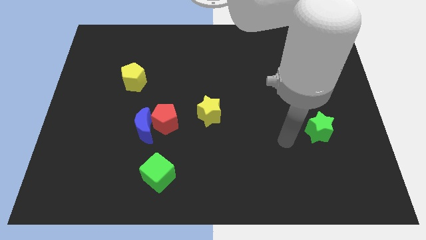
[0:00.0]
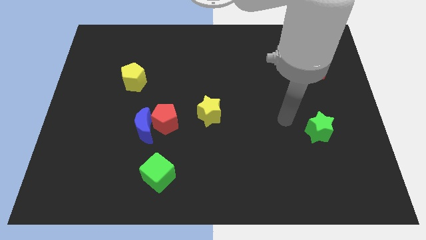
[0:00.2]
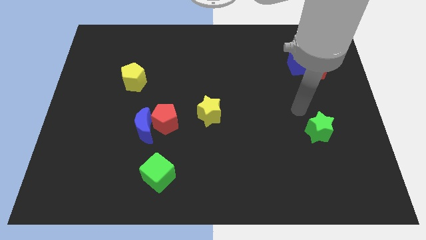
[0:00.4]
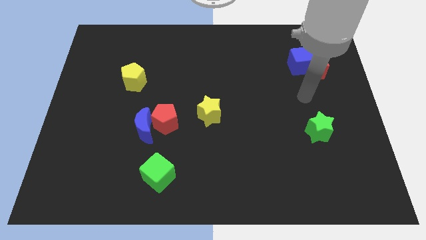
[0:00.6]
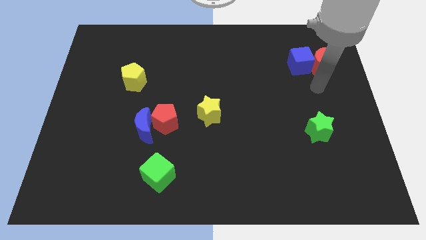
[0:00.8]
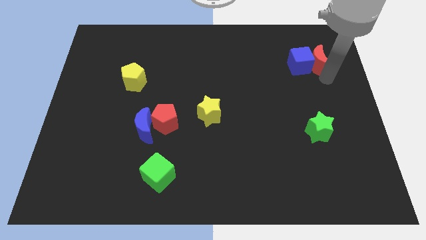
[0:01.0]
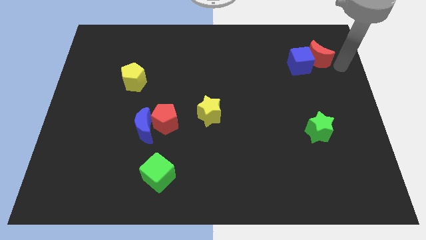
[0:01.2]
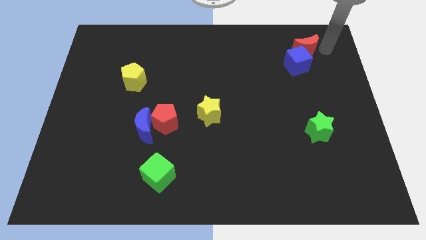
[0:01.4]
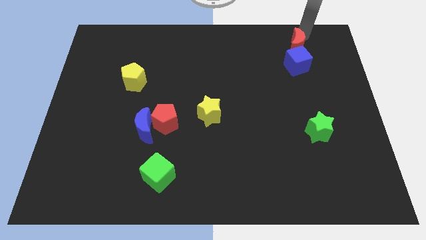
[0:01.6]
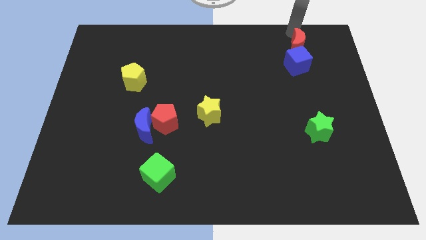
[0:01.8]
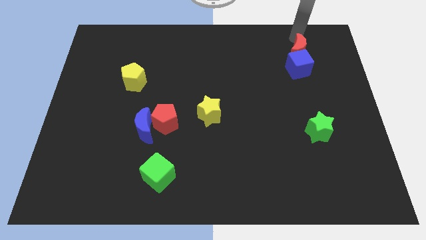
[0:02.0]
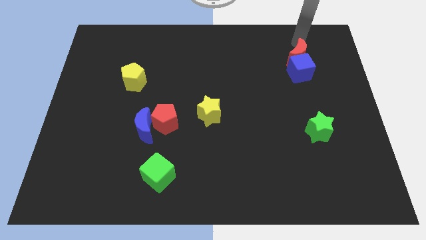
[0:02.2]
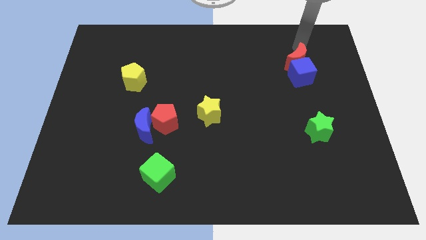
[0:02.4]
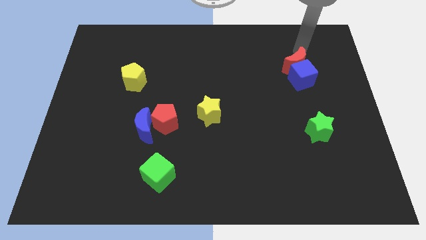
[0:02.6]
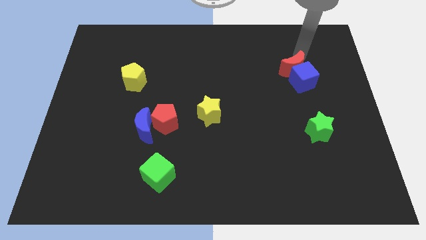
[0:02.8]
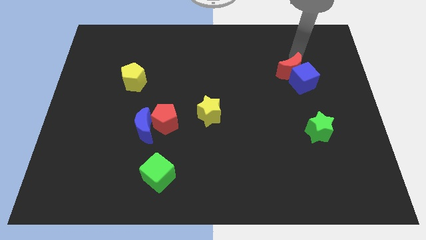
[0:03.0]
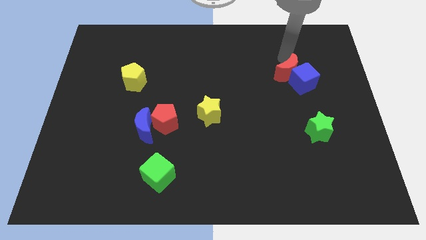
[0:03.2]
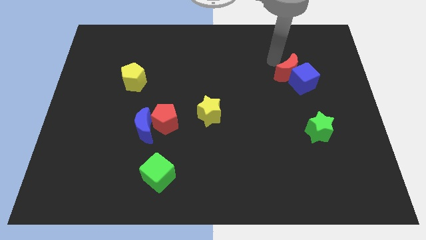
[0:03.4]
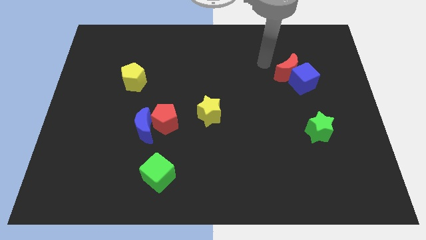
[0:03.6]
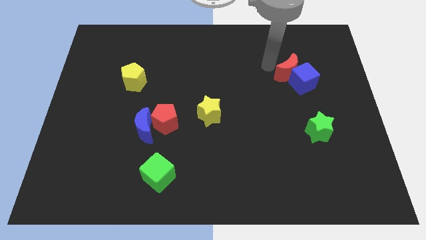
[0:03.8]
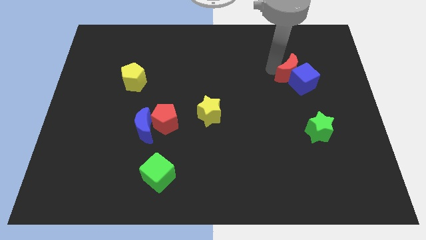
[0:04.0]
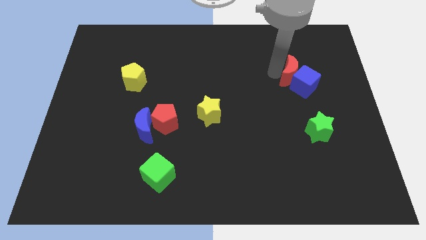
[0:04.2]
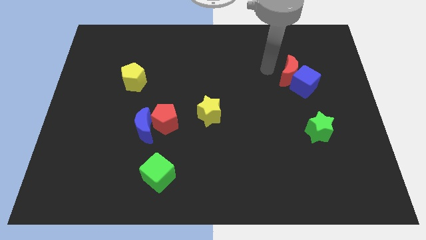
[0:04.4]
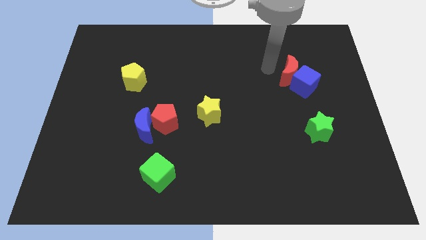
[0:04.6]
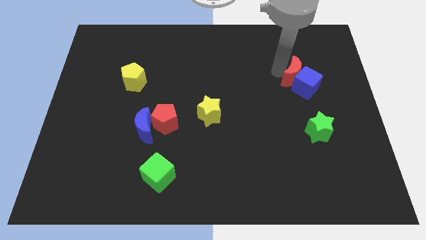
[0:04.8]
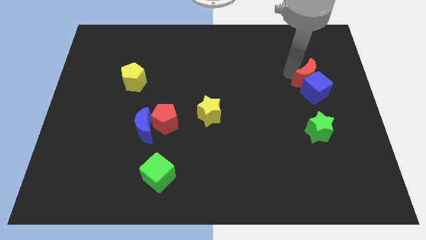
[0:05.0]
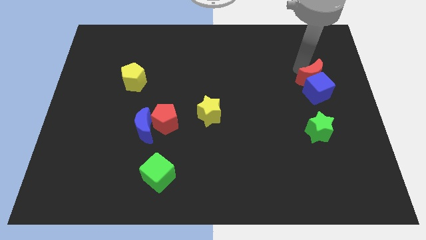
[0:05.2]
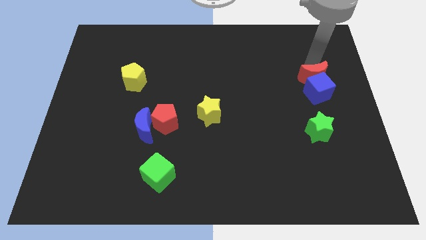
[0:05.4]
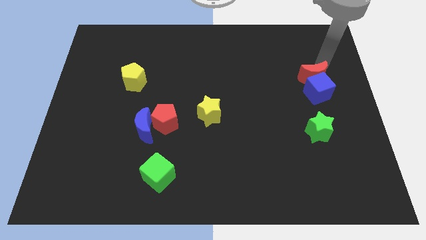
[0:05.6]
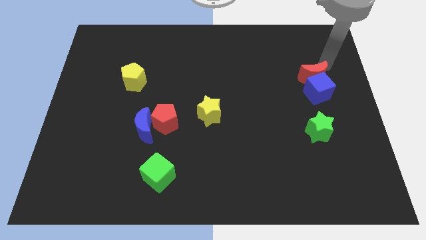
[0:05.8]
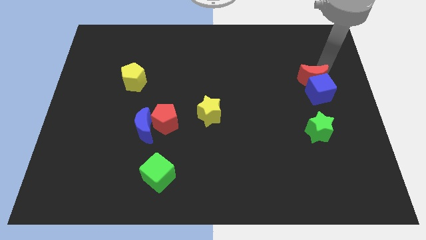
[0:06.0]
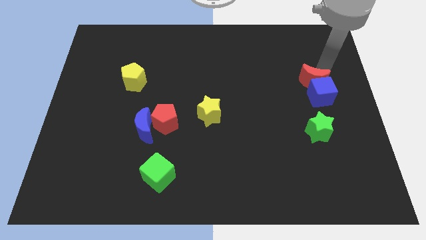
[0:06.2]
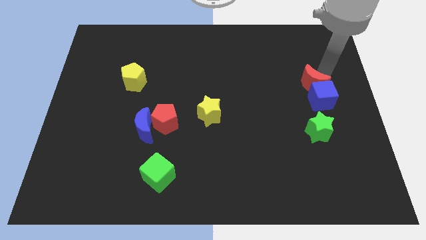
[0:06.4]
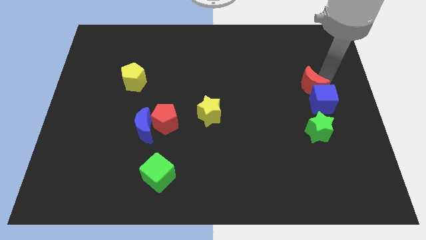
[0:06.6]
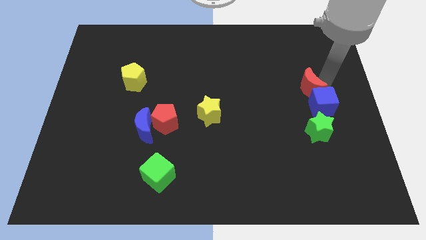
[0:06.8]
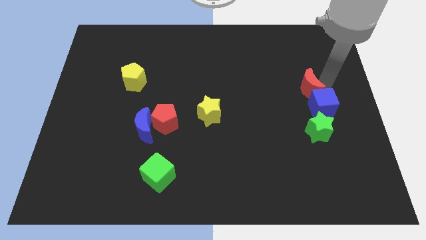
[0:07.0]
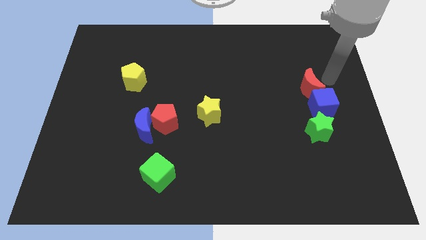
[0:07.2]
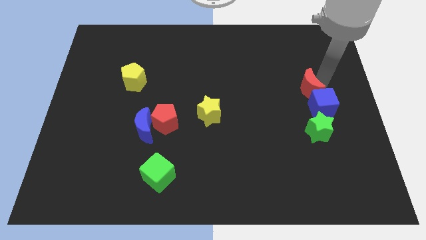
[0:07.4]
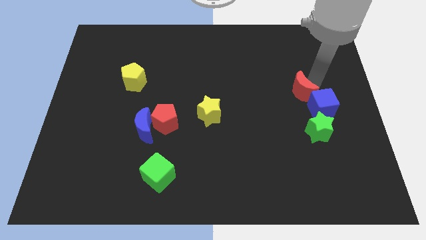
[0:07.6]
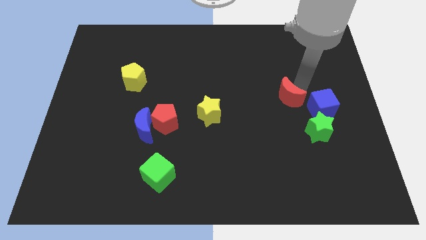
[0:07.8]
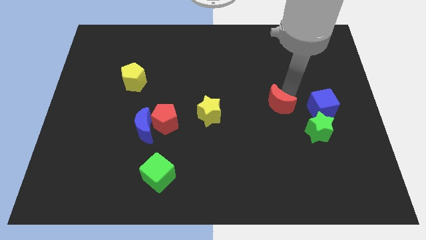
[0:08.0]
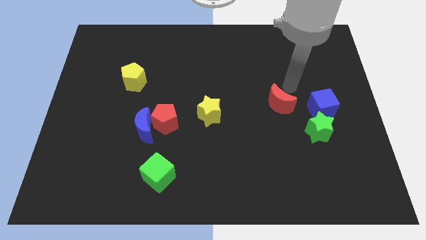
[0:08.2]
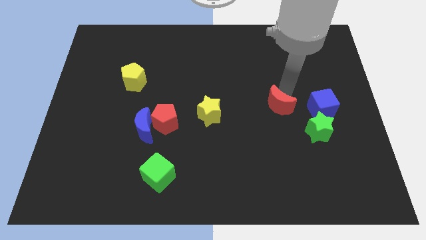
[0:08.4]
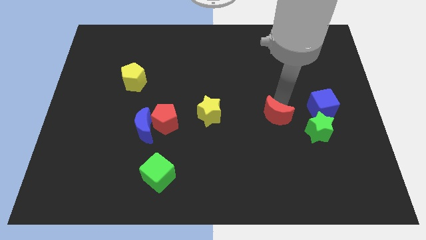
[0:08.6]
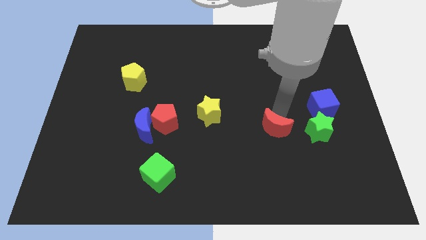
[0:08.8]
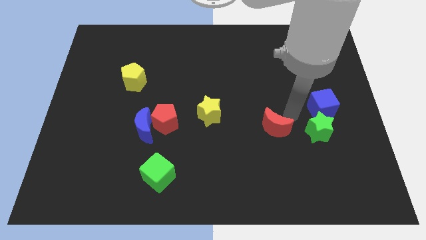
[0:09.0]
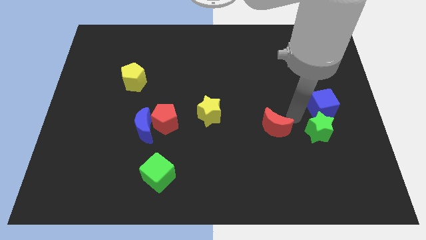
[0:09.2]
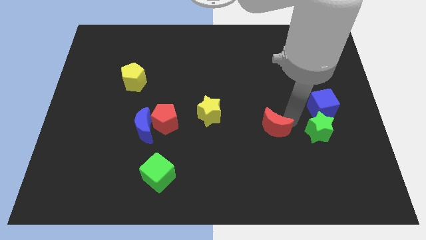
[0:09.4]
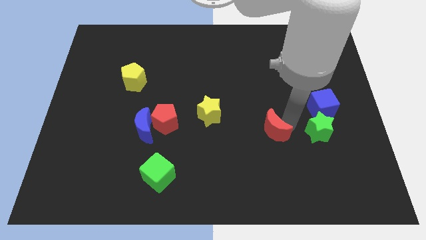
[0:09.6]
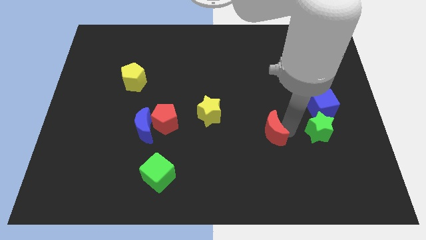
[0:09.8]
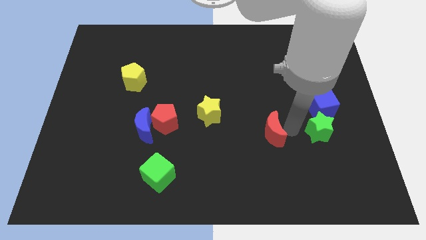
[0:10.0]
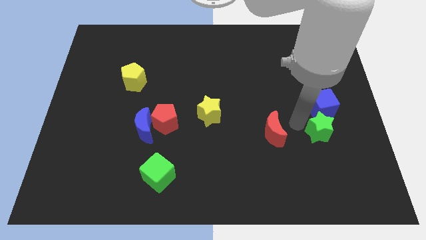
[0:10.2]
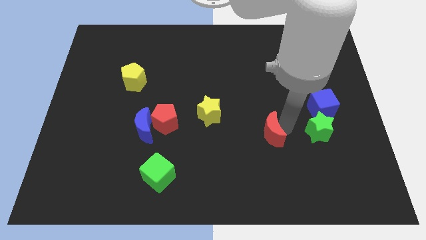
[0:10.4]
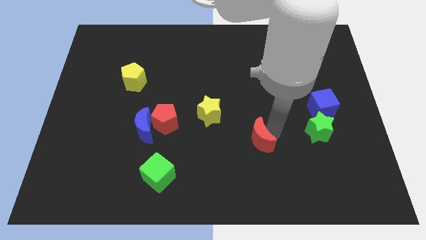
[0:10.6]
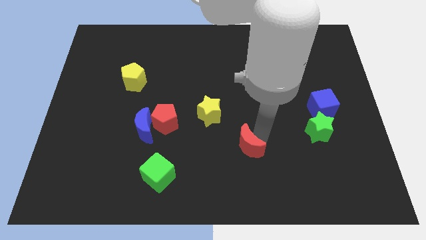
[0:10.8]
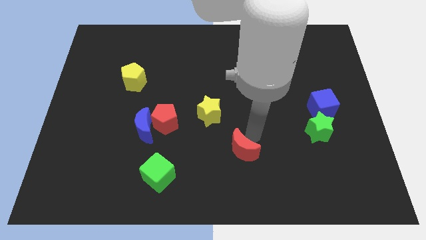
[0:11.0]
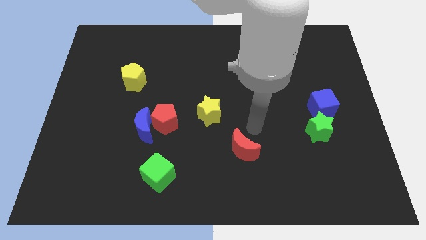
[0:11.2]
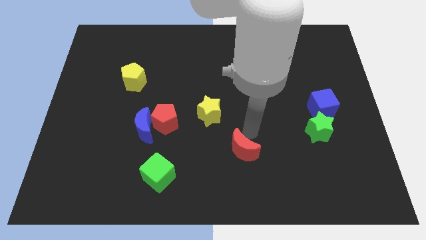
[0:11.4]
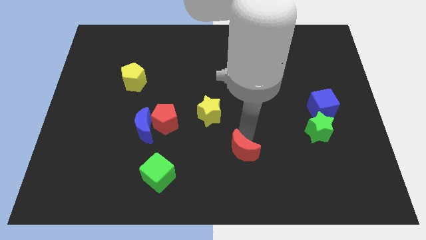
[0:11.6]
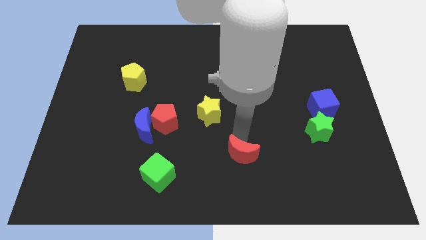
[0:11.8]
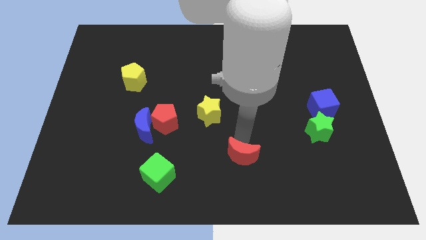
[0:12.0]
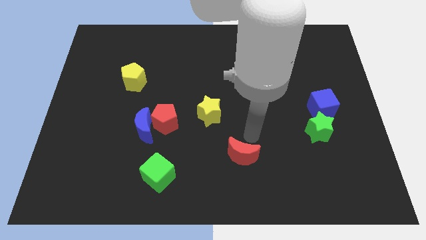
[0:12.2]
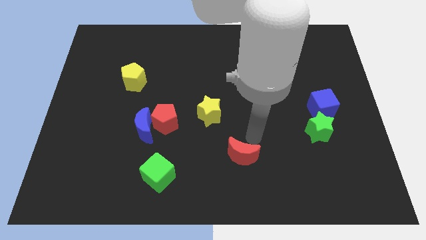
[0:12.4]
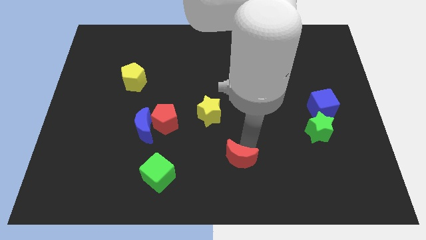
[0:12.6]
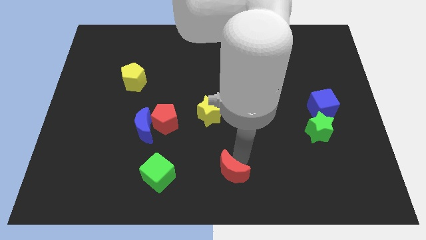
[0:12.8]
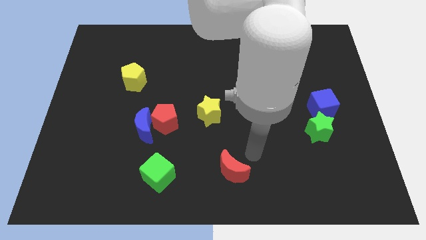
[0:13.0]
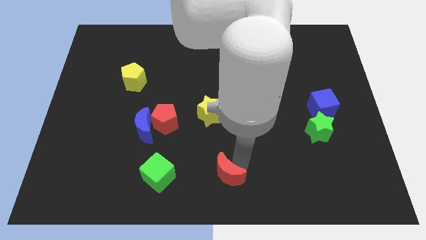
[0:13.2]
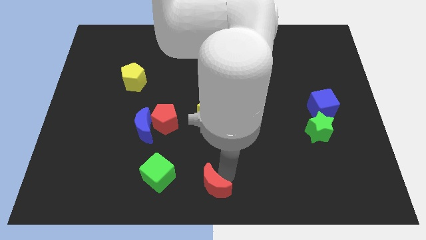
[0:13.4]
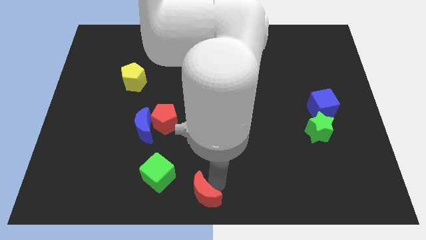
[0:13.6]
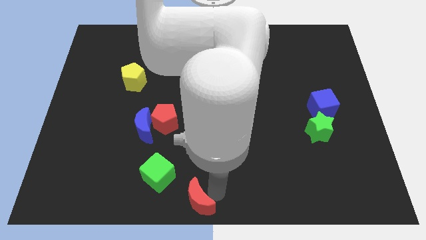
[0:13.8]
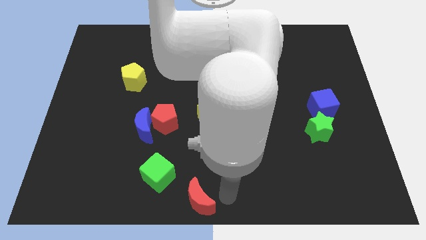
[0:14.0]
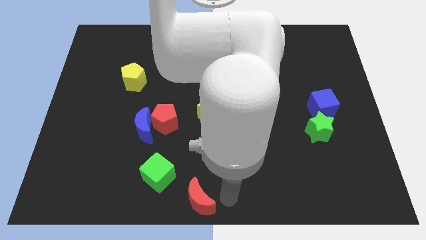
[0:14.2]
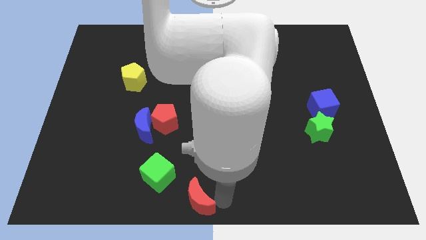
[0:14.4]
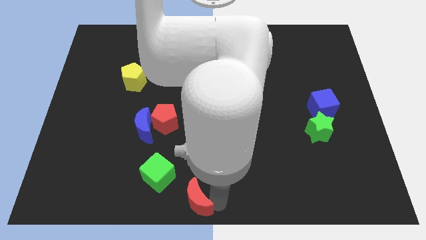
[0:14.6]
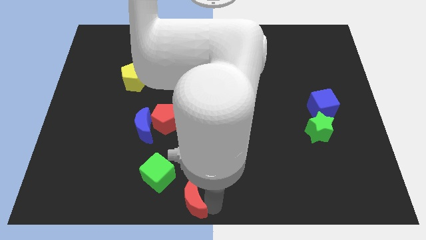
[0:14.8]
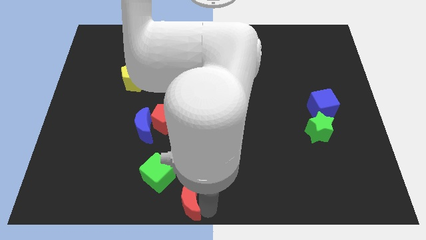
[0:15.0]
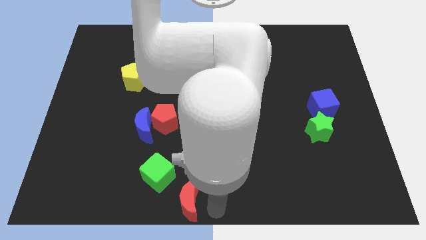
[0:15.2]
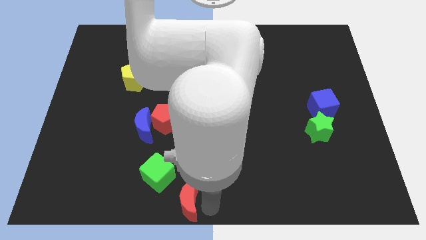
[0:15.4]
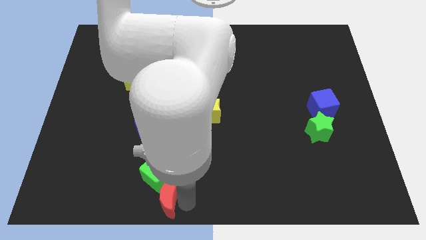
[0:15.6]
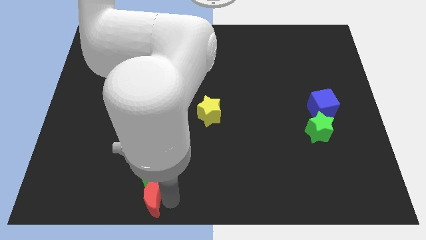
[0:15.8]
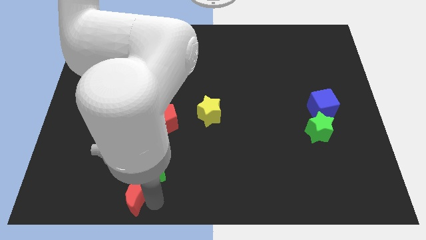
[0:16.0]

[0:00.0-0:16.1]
move the red moon to the bottom of the blue moon
